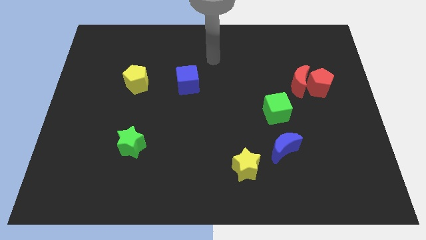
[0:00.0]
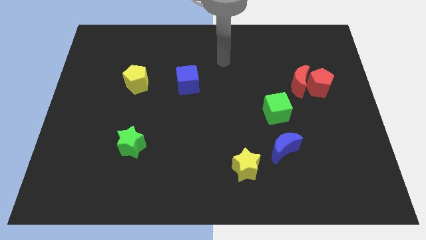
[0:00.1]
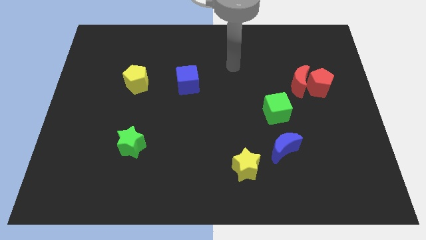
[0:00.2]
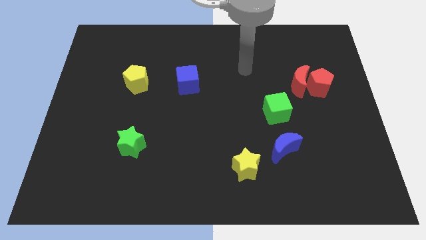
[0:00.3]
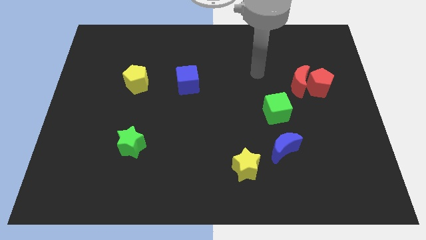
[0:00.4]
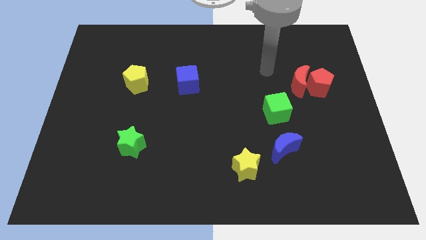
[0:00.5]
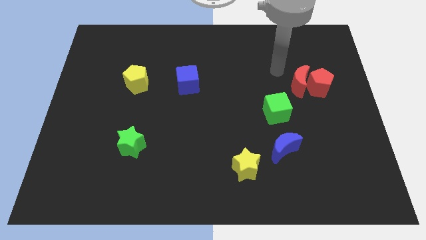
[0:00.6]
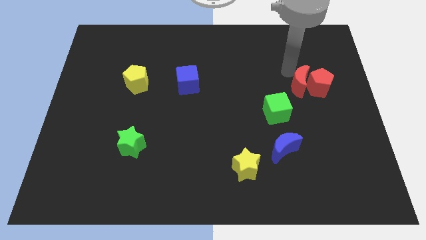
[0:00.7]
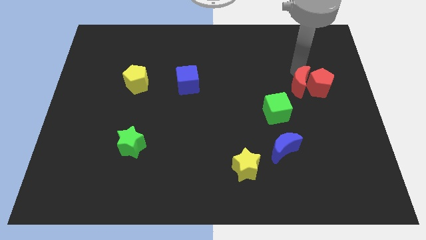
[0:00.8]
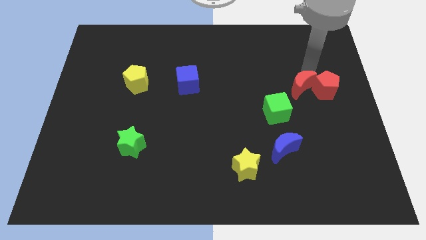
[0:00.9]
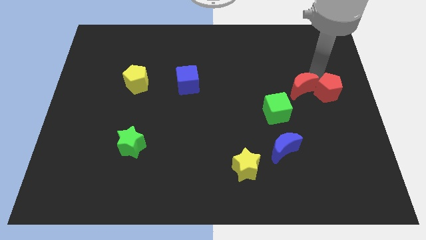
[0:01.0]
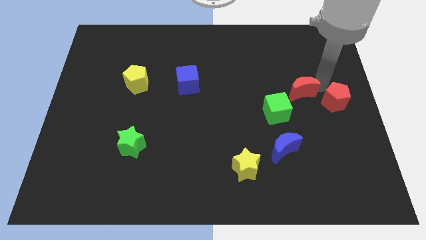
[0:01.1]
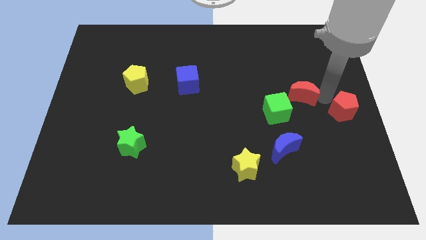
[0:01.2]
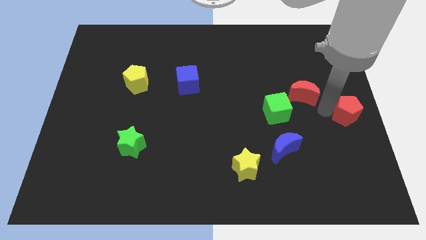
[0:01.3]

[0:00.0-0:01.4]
pull the red moon apart from the red pentagon

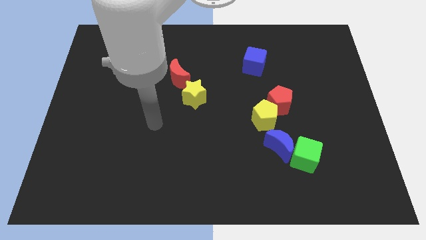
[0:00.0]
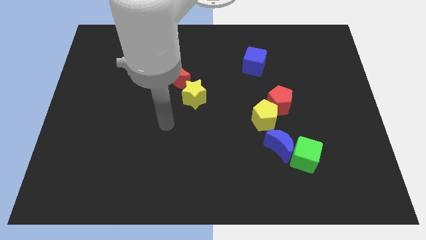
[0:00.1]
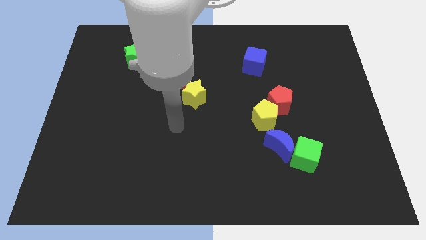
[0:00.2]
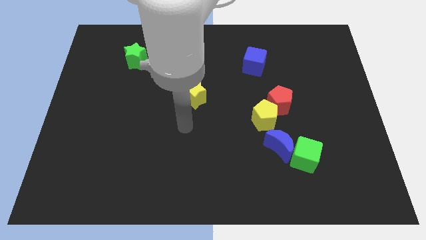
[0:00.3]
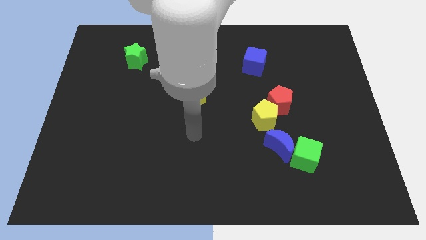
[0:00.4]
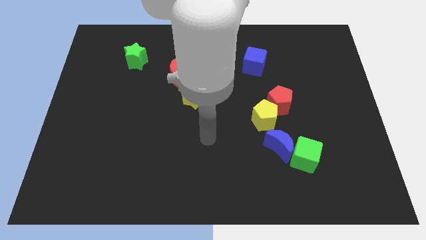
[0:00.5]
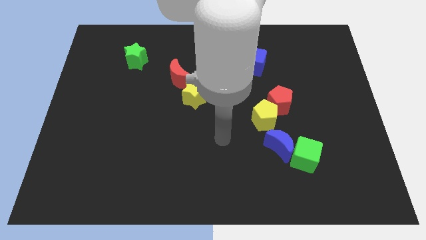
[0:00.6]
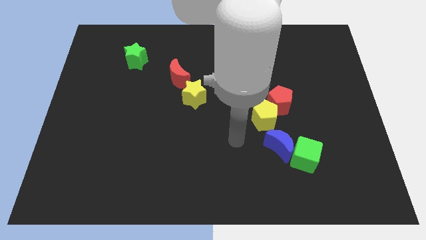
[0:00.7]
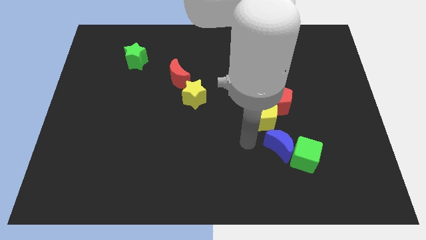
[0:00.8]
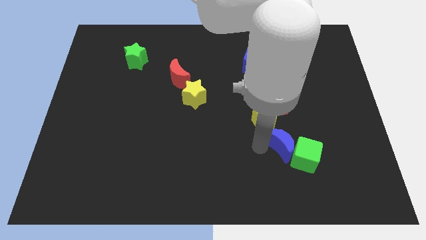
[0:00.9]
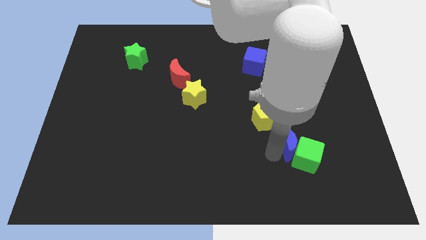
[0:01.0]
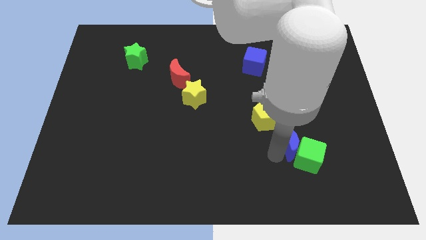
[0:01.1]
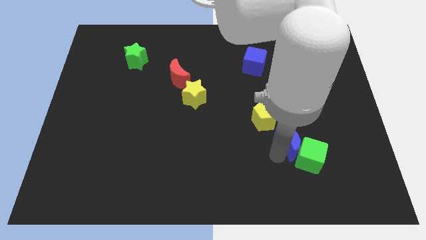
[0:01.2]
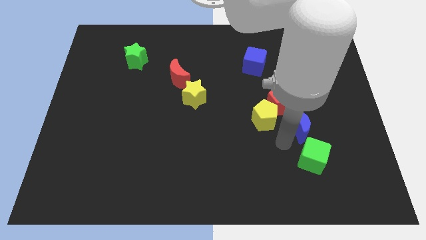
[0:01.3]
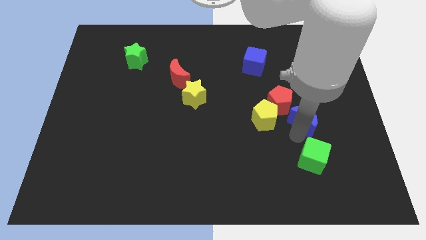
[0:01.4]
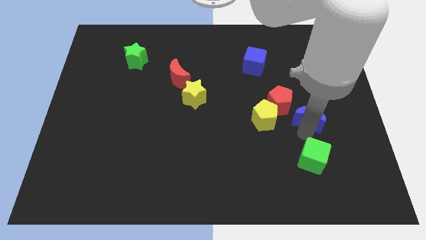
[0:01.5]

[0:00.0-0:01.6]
move the green cube away from the blue moon

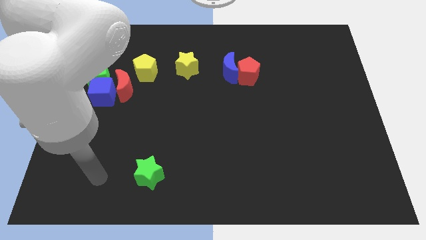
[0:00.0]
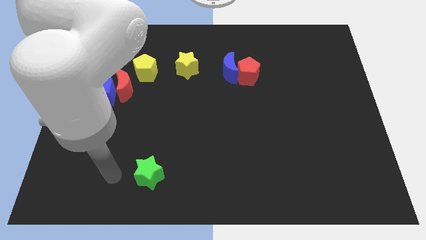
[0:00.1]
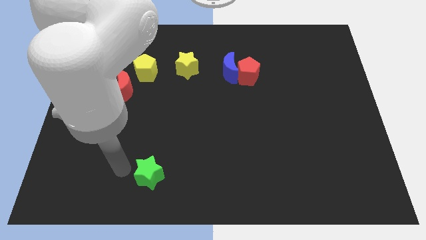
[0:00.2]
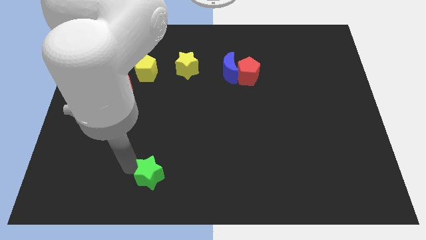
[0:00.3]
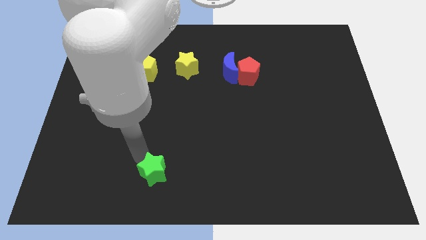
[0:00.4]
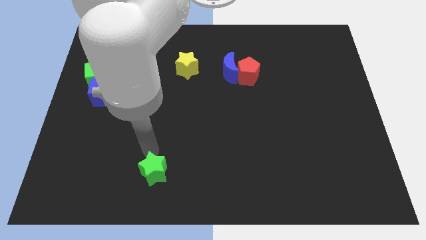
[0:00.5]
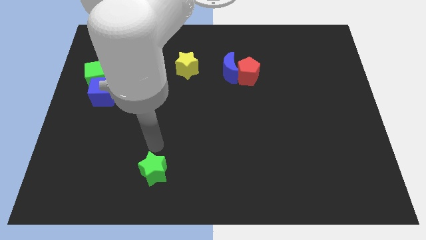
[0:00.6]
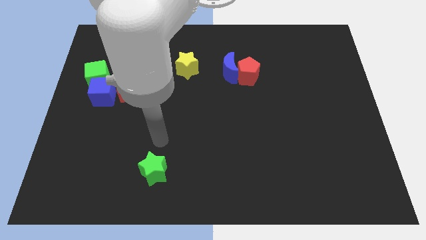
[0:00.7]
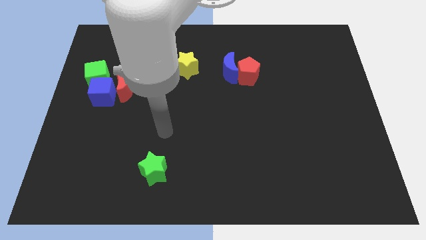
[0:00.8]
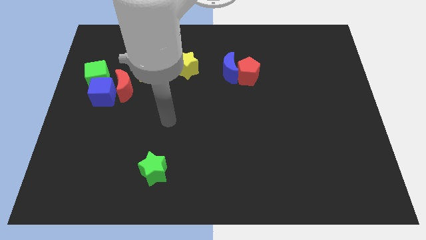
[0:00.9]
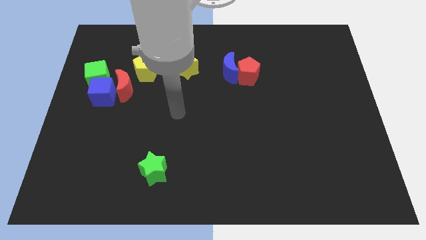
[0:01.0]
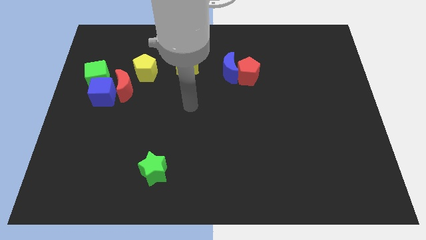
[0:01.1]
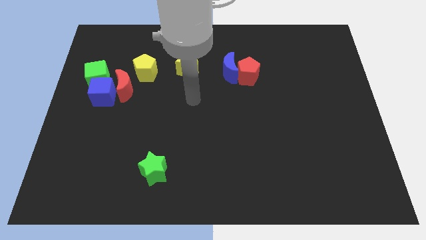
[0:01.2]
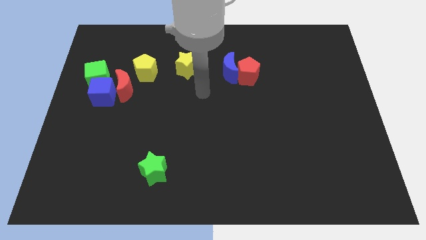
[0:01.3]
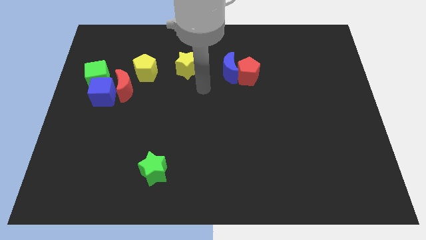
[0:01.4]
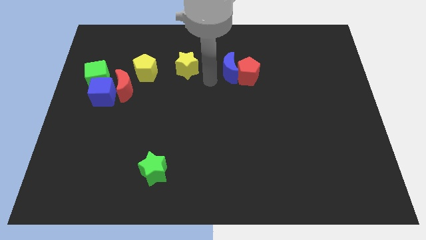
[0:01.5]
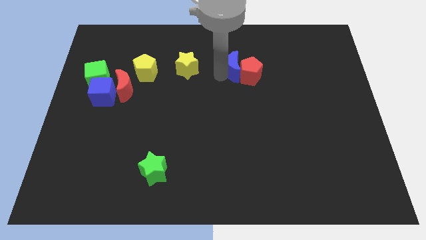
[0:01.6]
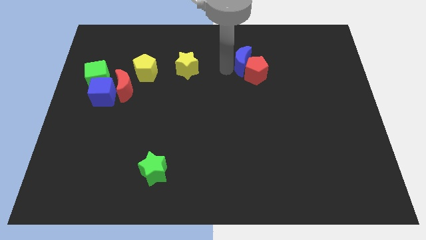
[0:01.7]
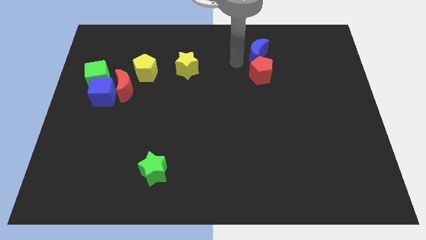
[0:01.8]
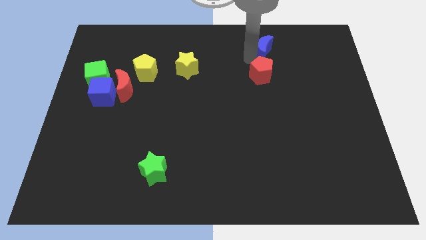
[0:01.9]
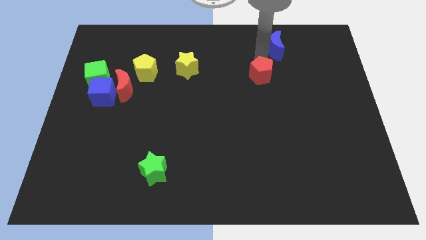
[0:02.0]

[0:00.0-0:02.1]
separate the red pentagon from the blue moon

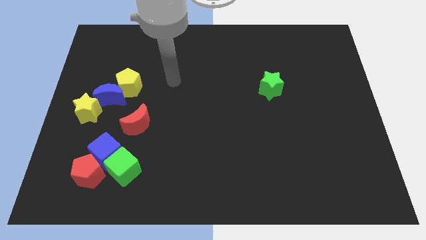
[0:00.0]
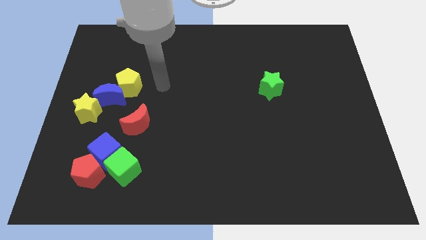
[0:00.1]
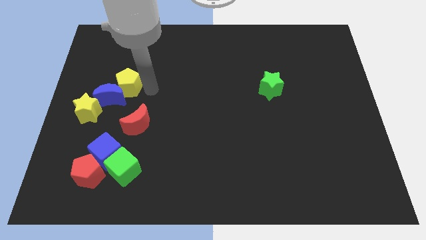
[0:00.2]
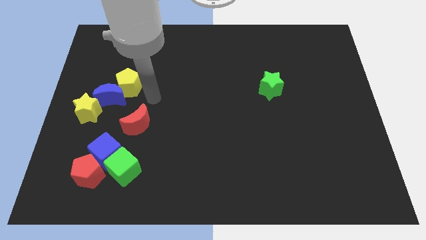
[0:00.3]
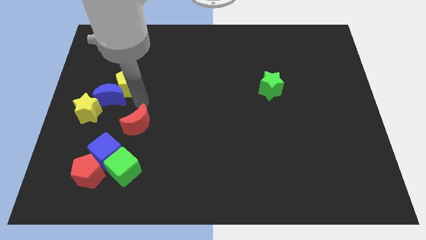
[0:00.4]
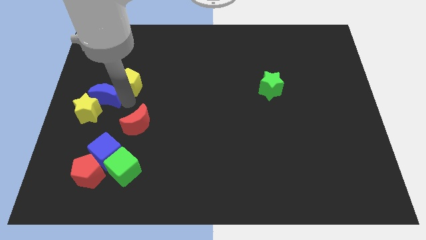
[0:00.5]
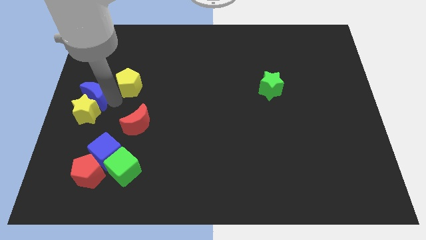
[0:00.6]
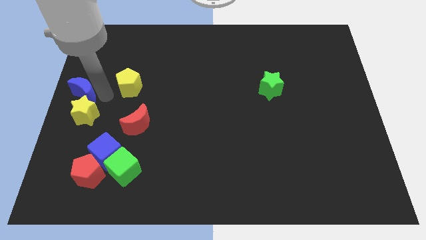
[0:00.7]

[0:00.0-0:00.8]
pull the yellow pentagon apart from the blue moon

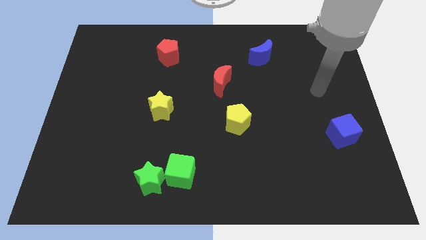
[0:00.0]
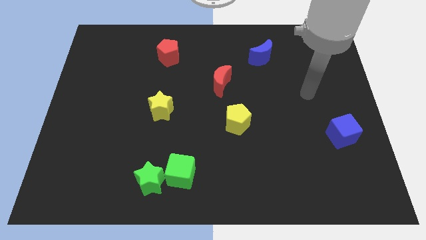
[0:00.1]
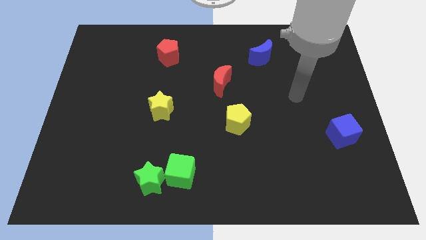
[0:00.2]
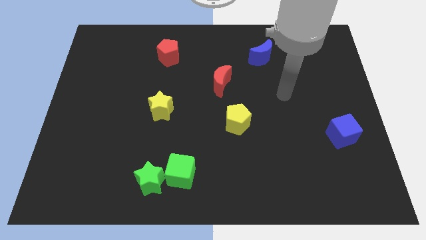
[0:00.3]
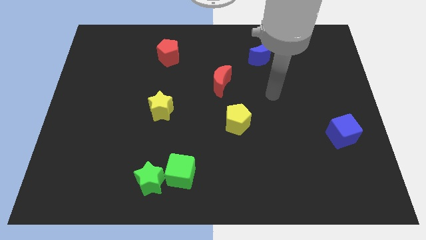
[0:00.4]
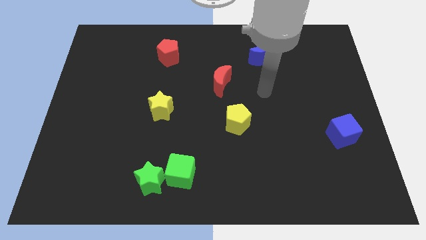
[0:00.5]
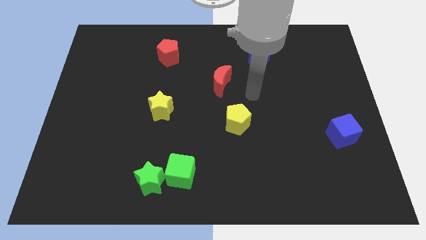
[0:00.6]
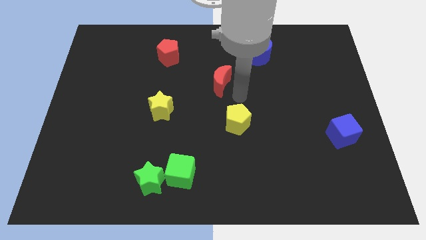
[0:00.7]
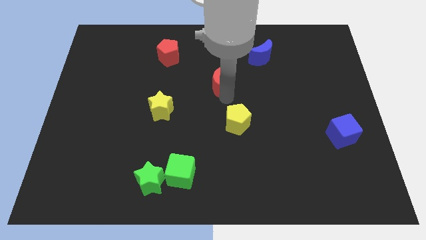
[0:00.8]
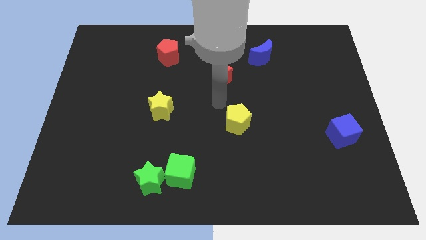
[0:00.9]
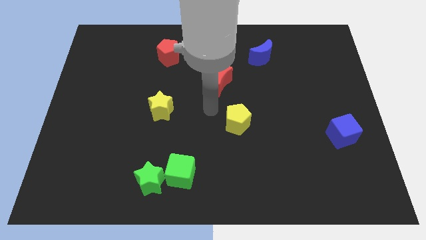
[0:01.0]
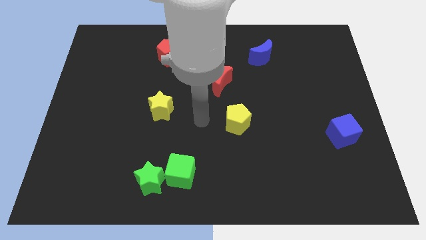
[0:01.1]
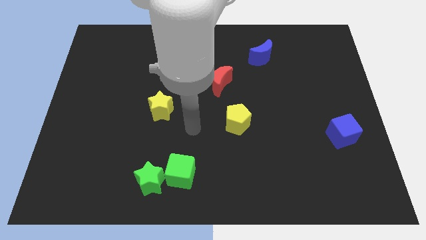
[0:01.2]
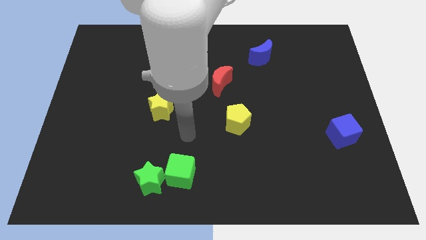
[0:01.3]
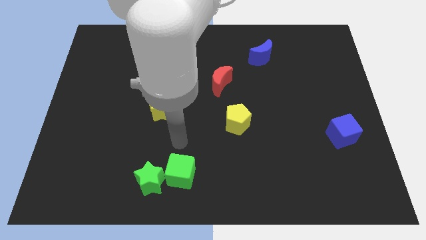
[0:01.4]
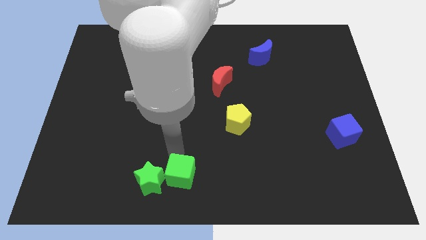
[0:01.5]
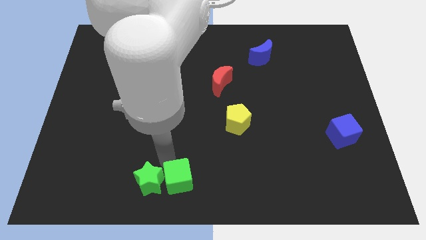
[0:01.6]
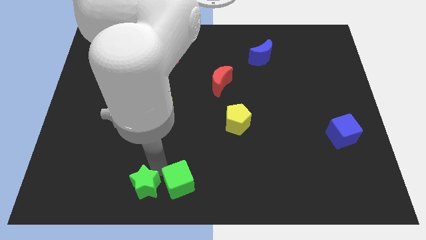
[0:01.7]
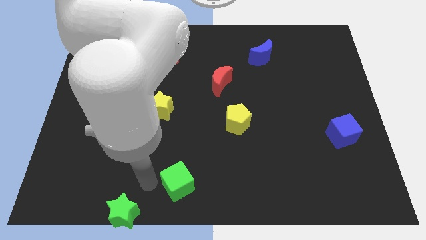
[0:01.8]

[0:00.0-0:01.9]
separate the green cube from the green star

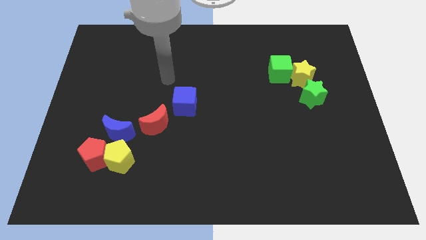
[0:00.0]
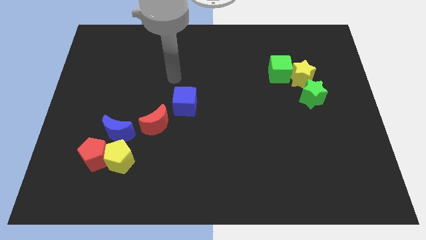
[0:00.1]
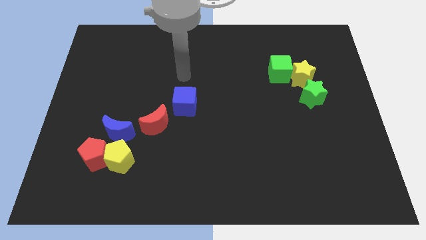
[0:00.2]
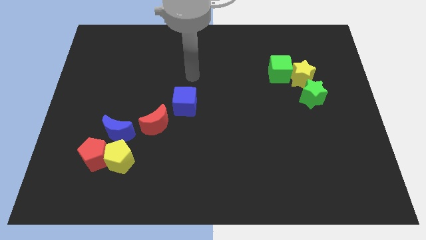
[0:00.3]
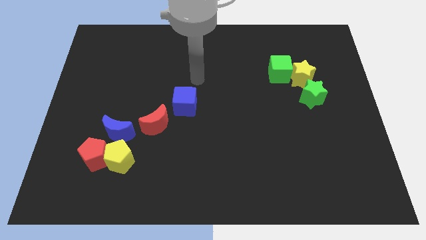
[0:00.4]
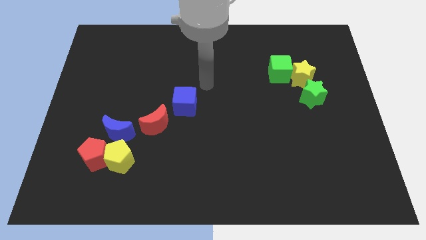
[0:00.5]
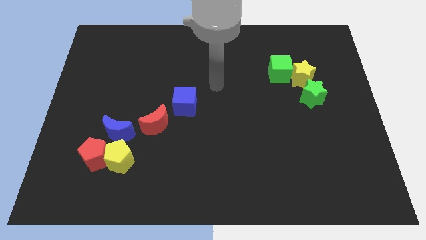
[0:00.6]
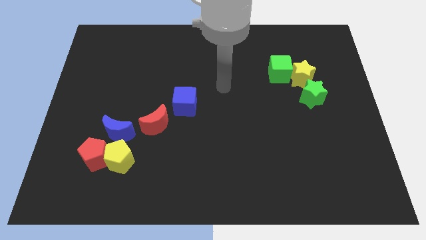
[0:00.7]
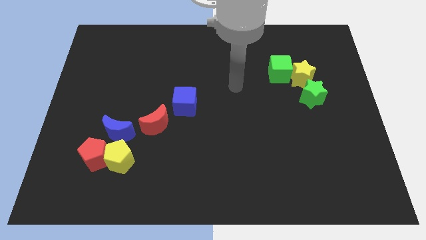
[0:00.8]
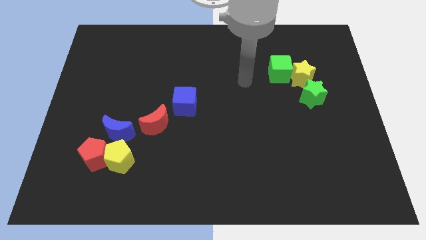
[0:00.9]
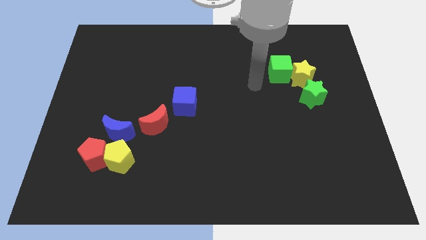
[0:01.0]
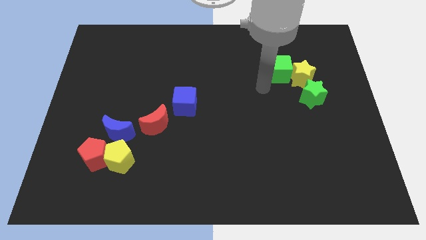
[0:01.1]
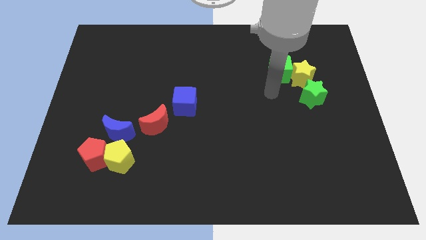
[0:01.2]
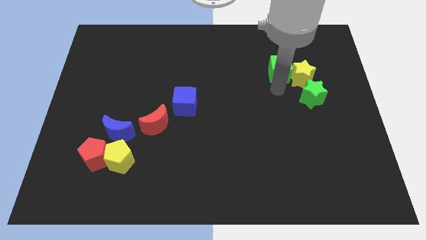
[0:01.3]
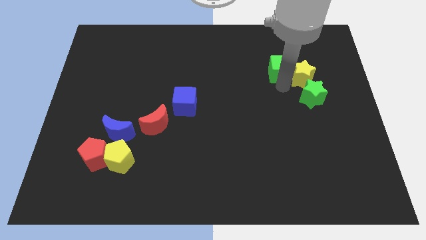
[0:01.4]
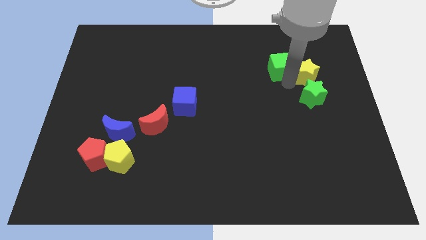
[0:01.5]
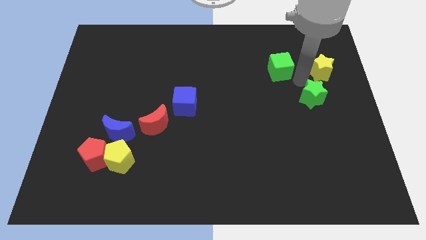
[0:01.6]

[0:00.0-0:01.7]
separate the green cube from the yellow star
